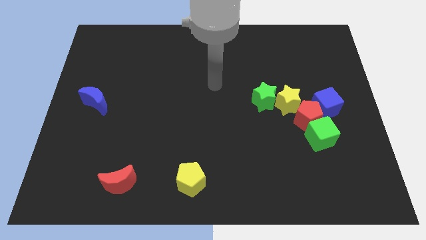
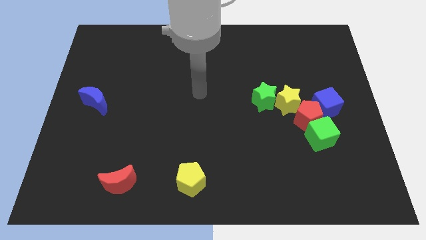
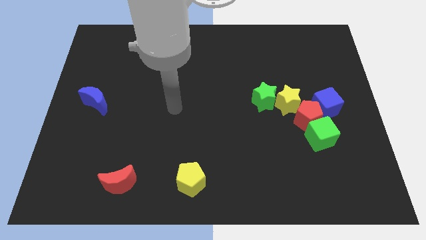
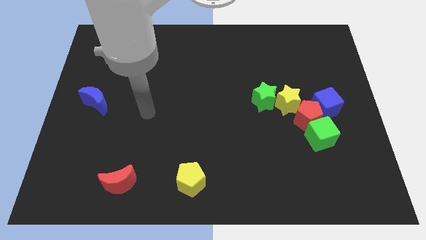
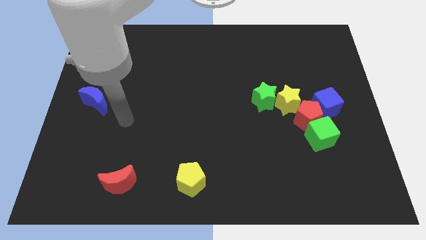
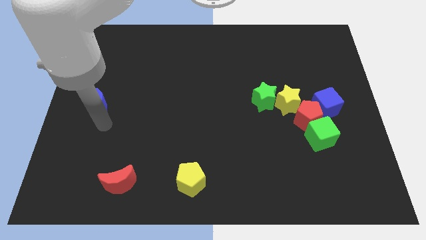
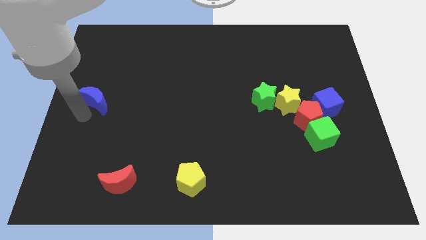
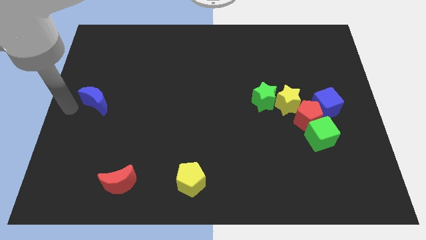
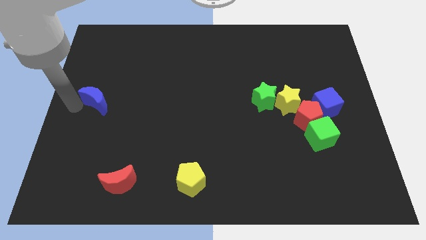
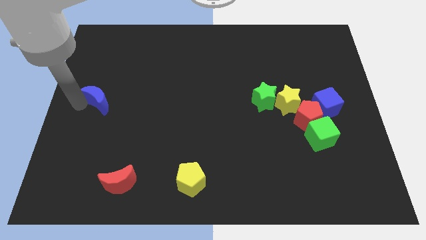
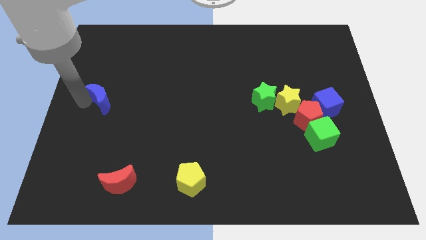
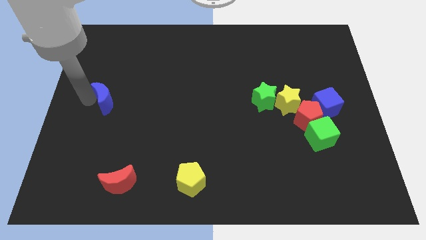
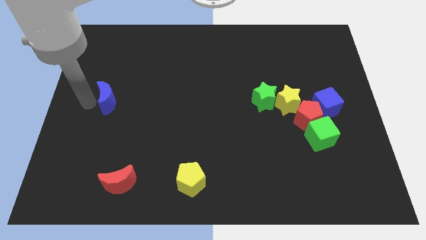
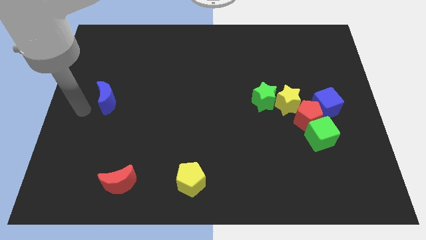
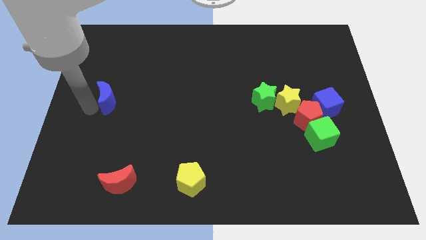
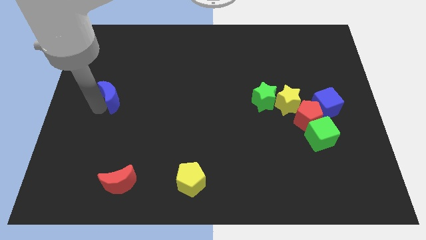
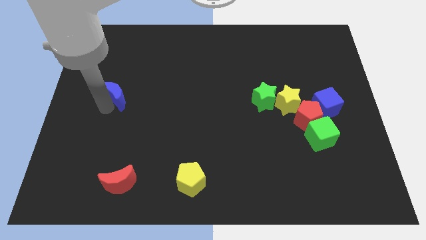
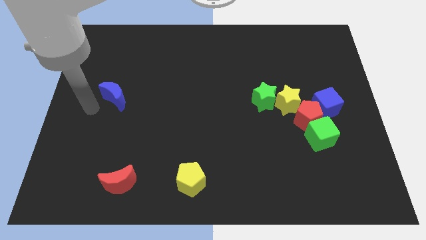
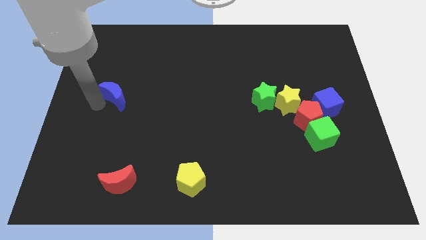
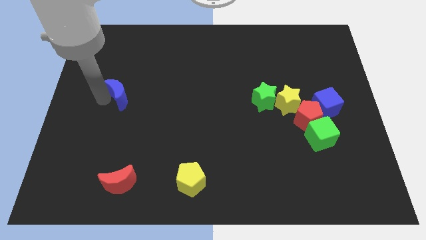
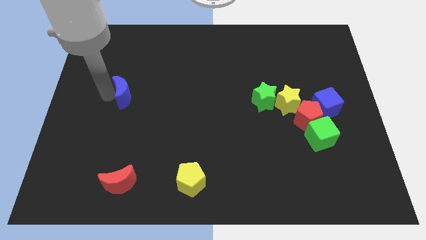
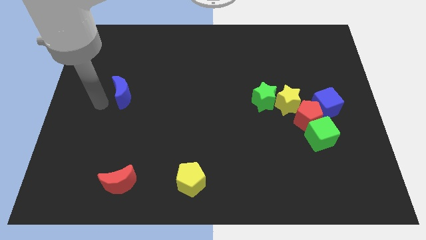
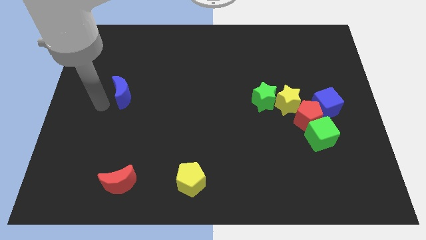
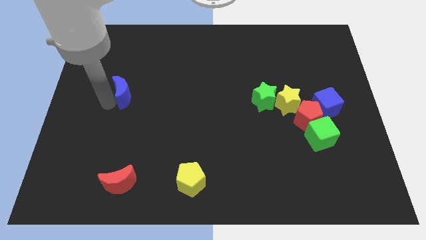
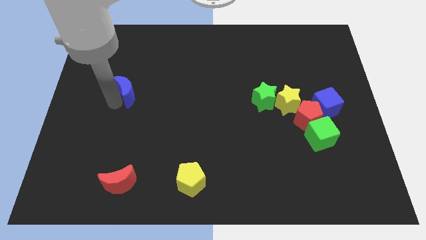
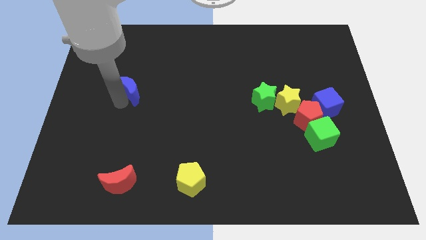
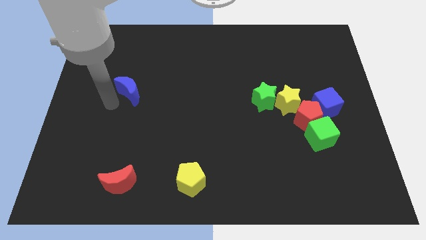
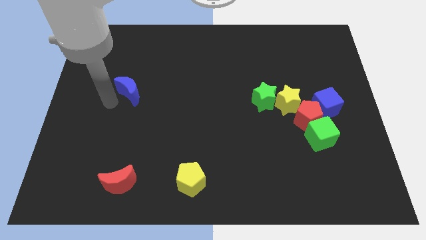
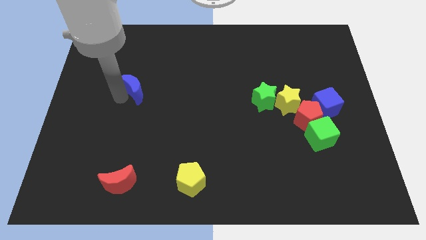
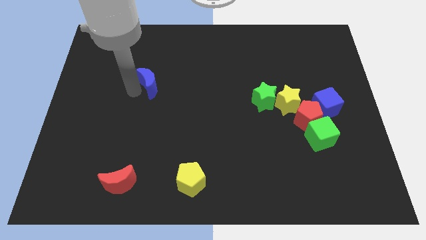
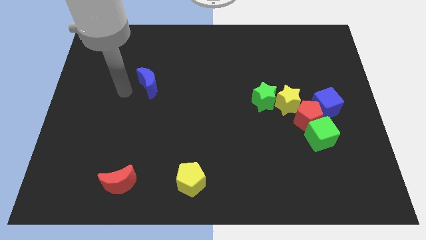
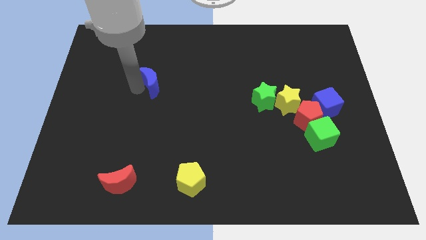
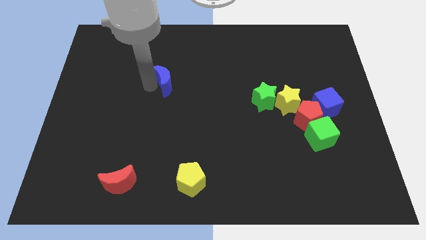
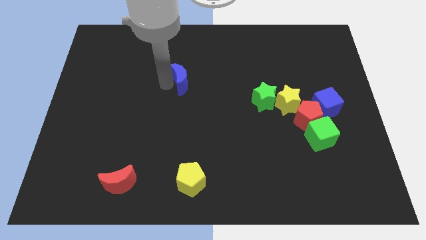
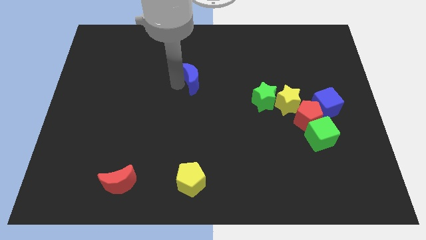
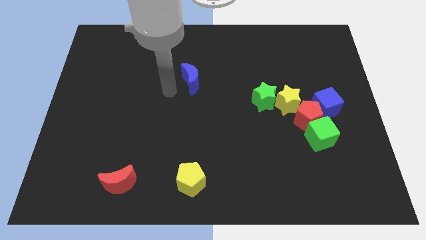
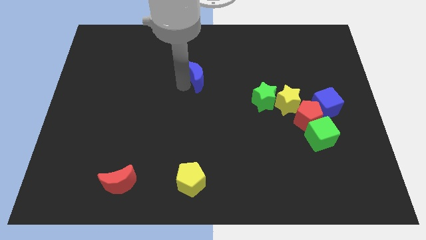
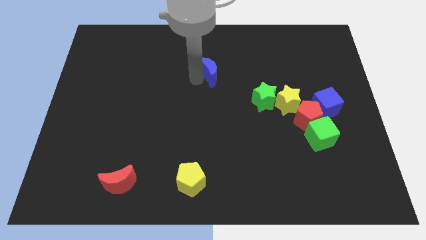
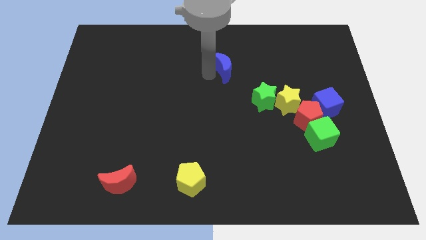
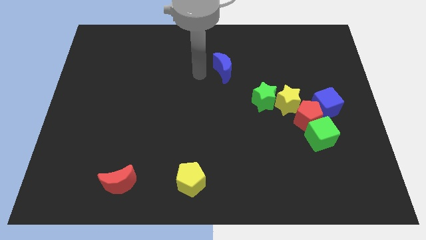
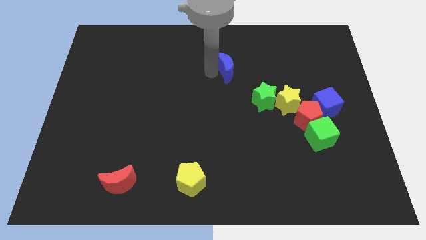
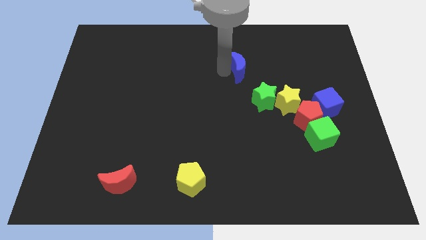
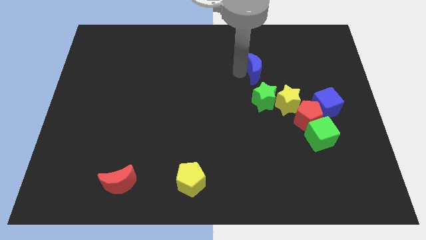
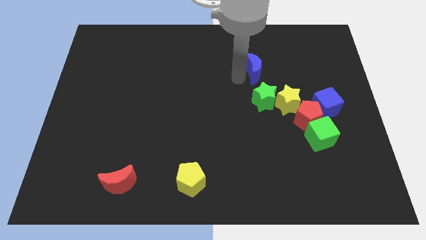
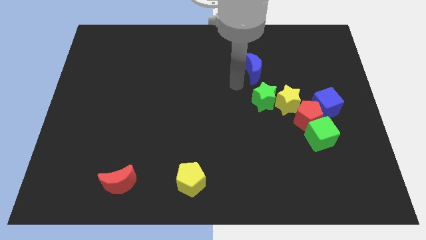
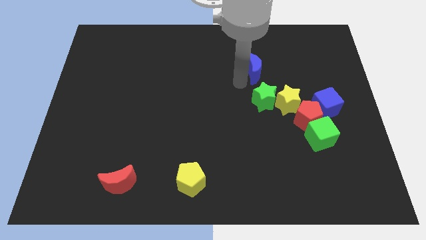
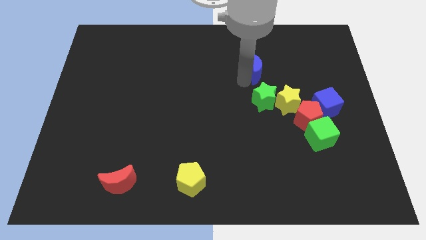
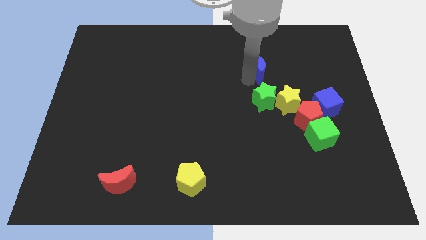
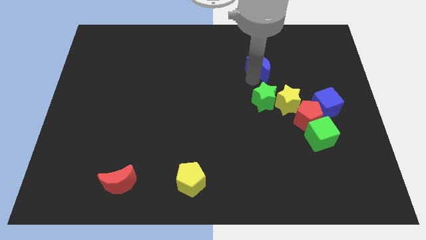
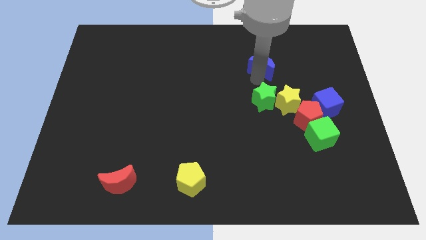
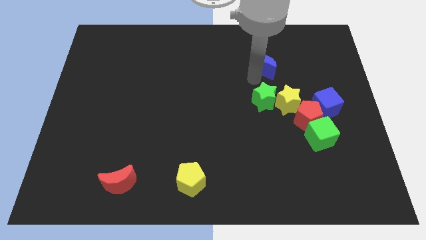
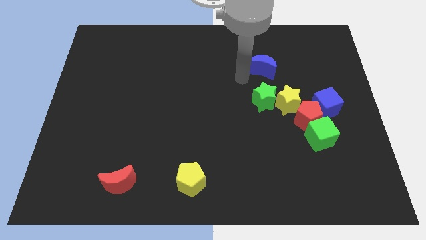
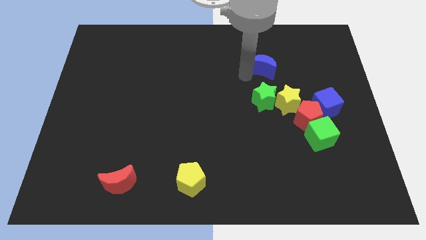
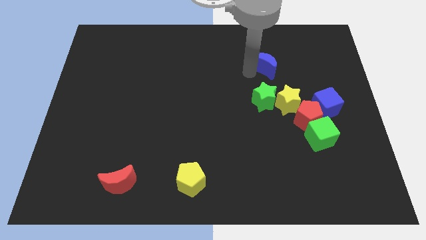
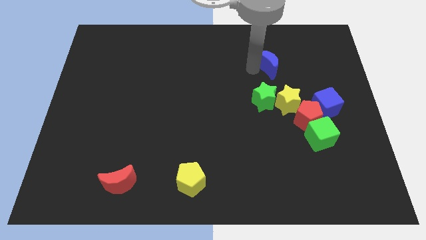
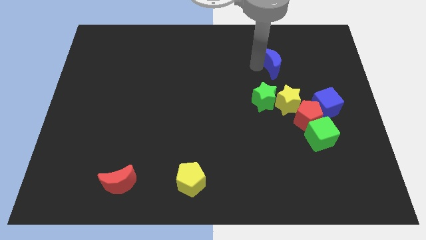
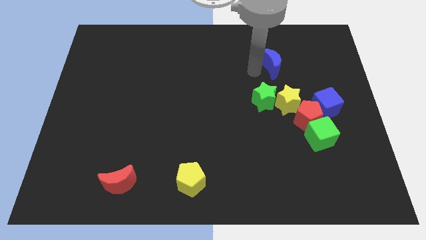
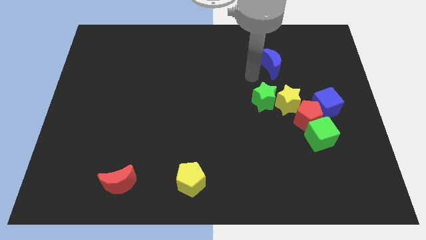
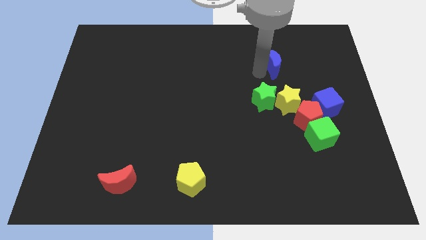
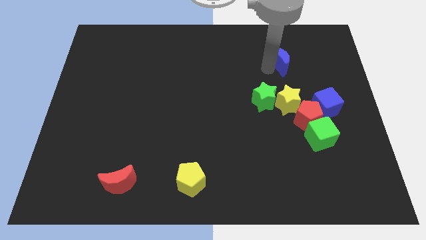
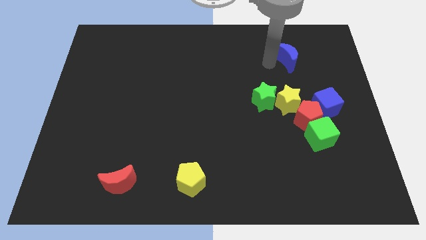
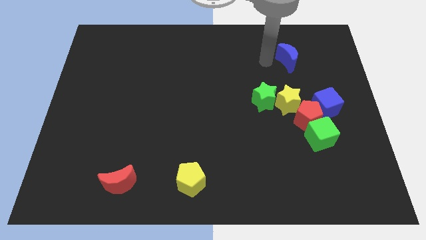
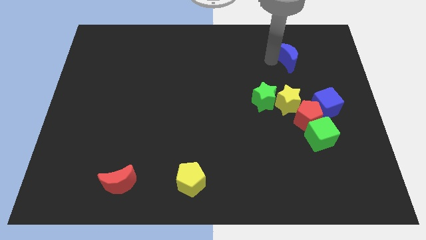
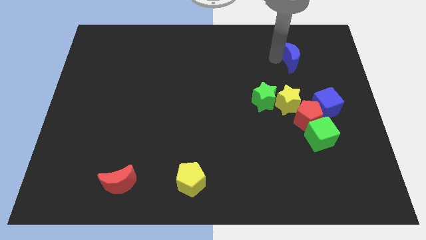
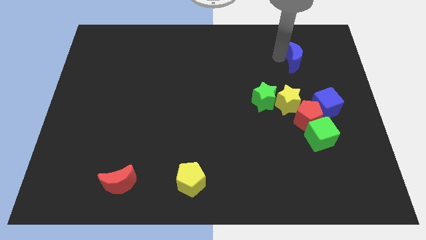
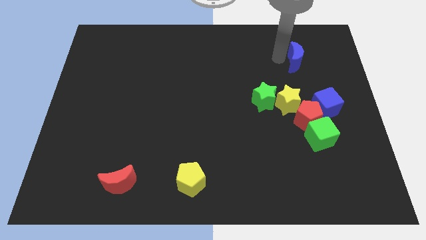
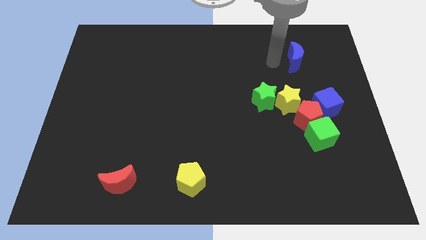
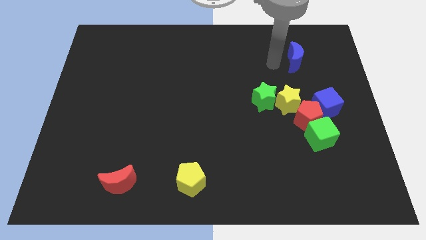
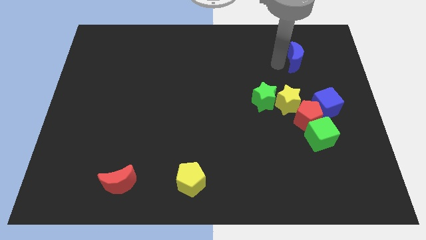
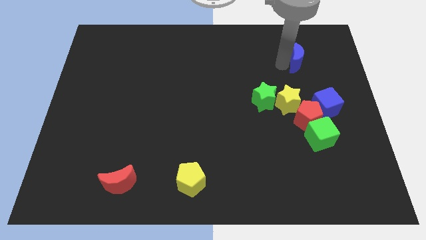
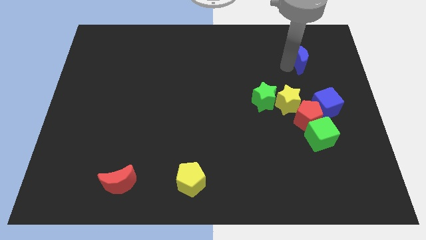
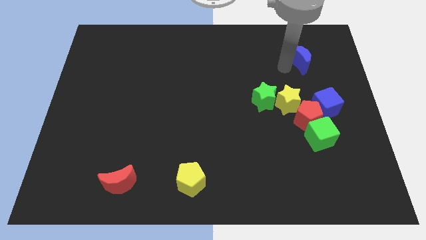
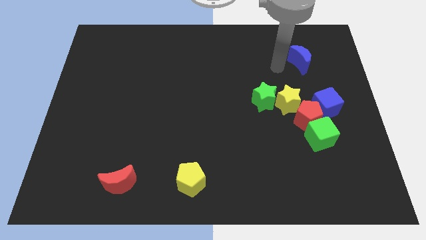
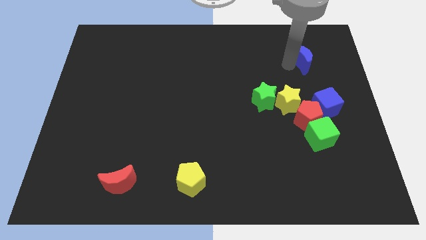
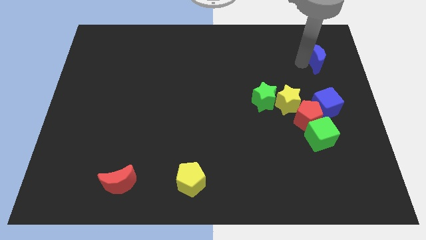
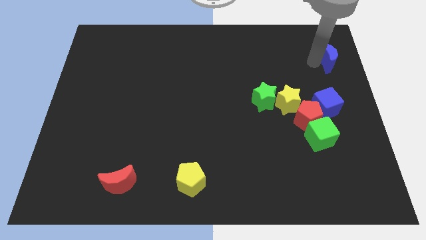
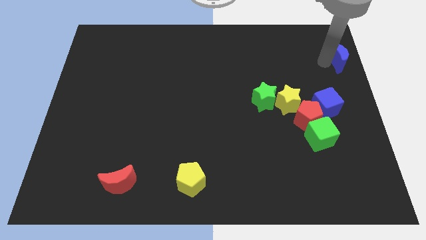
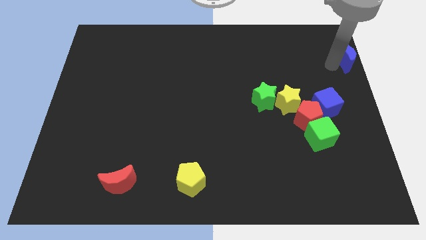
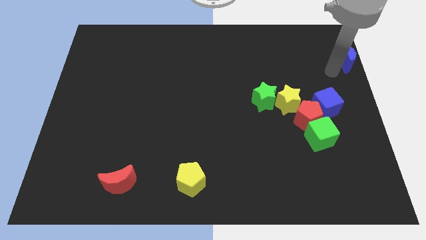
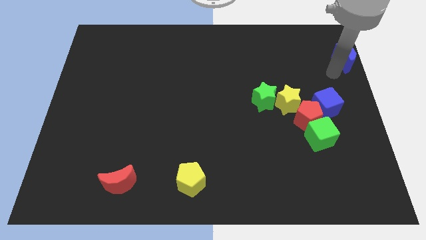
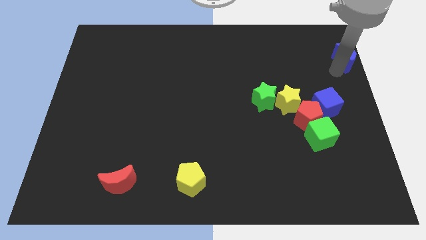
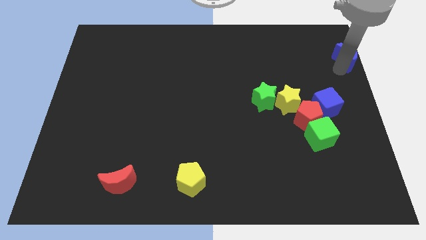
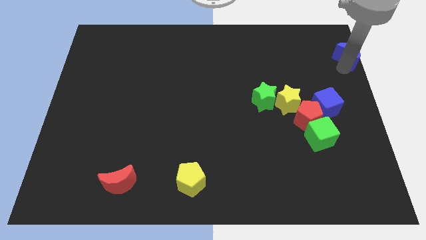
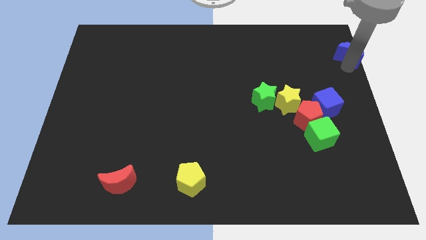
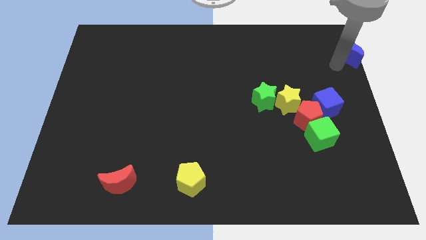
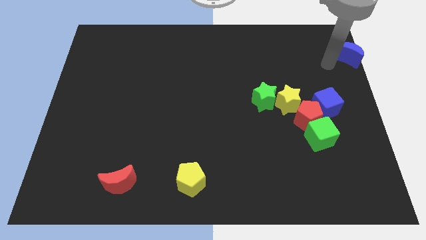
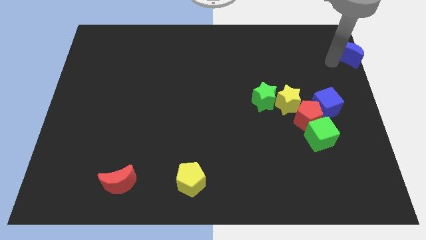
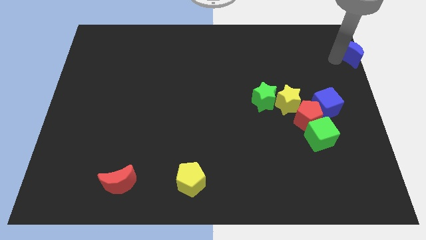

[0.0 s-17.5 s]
move the blue moon to the top right
